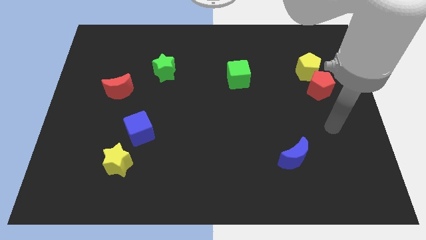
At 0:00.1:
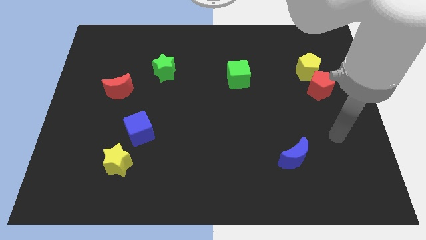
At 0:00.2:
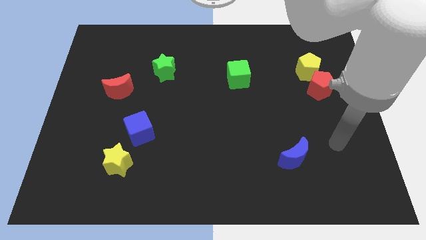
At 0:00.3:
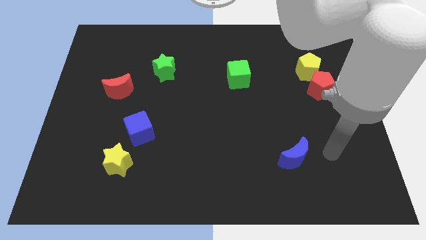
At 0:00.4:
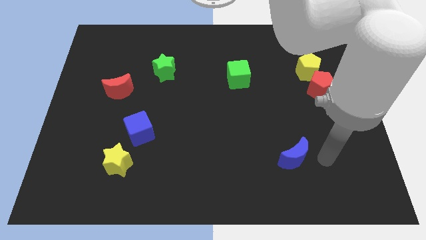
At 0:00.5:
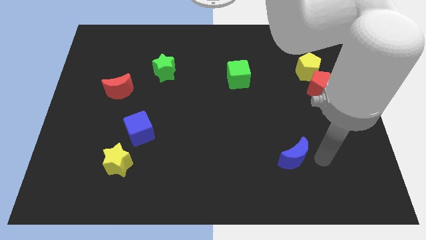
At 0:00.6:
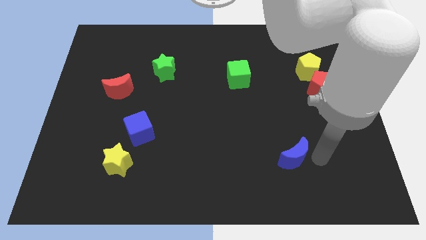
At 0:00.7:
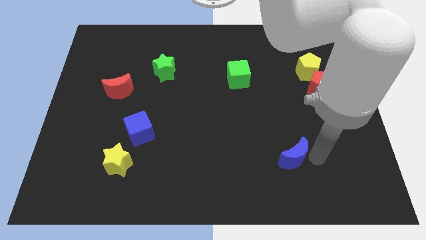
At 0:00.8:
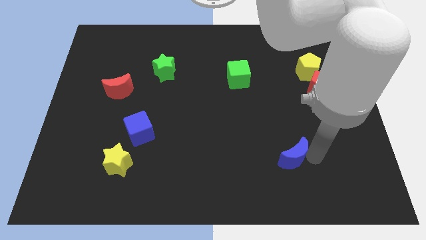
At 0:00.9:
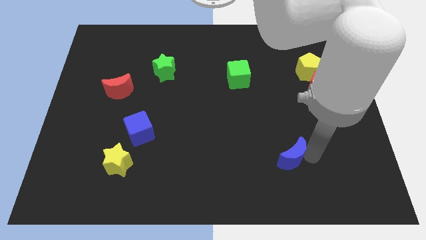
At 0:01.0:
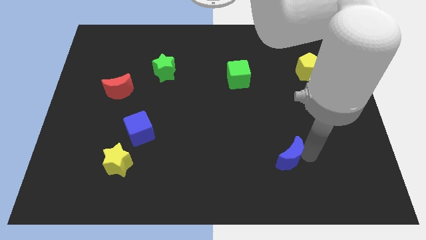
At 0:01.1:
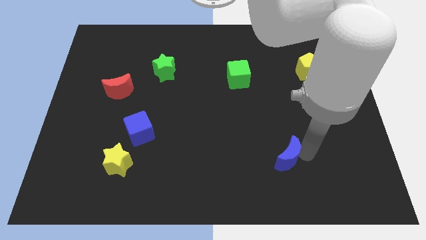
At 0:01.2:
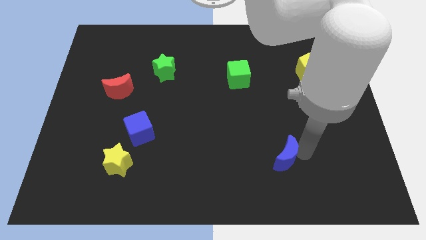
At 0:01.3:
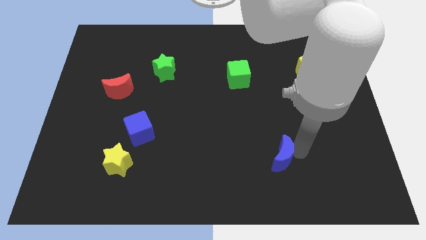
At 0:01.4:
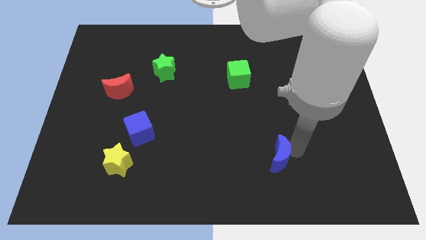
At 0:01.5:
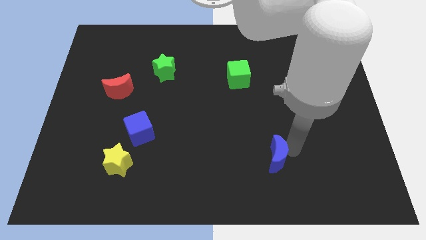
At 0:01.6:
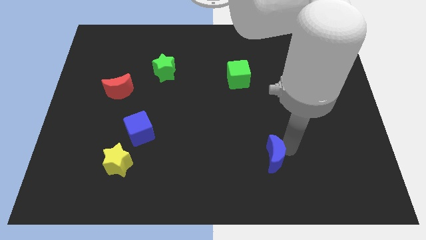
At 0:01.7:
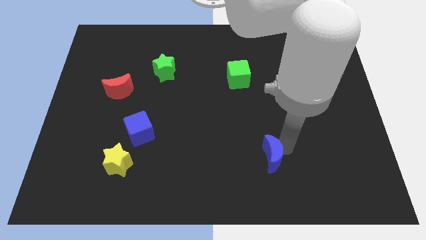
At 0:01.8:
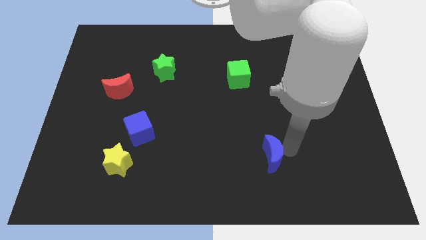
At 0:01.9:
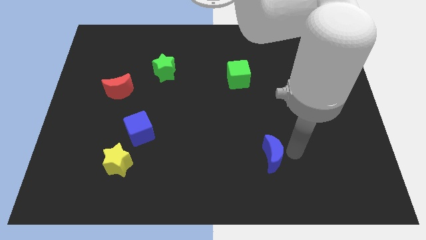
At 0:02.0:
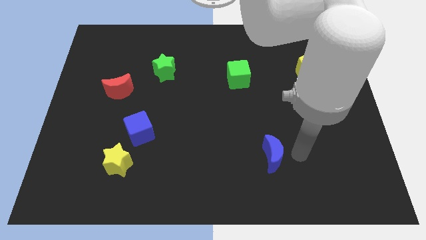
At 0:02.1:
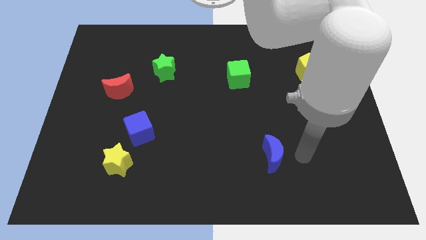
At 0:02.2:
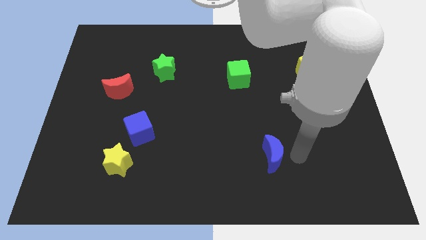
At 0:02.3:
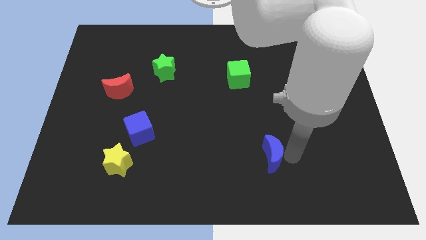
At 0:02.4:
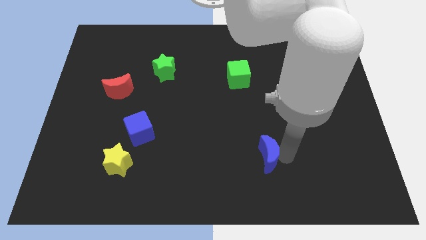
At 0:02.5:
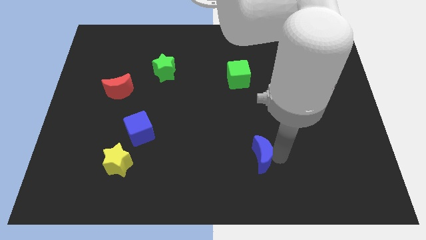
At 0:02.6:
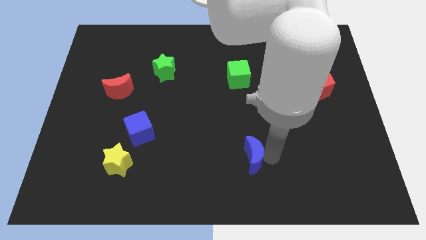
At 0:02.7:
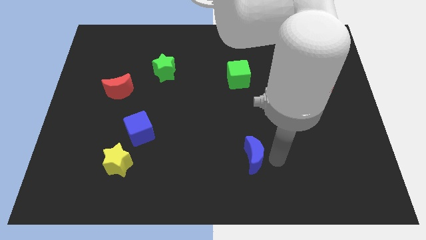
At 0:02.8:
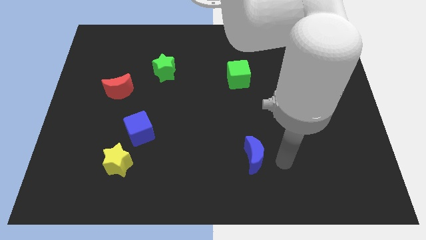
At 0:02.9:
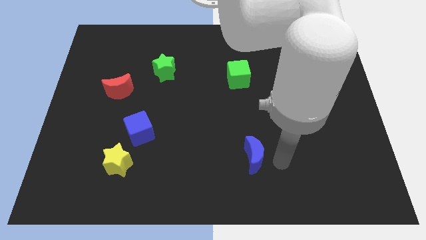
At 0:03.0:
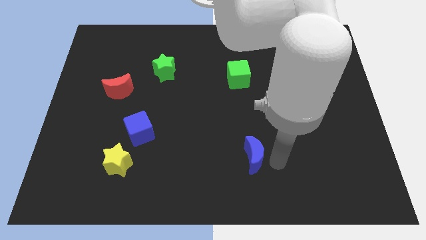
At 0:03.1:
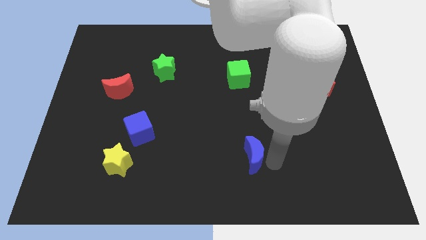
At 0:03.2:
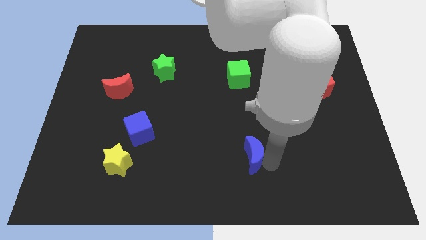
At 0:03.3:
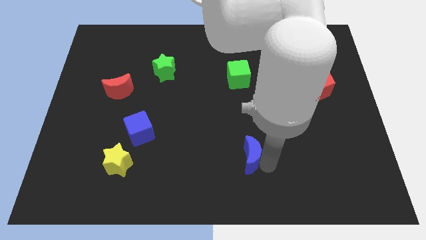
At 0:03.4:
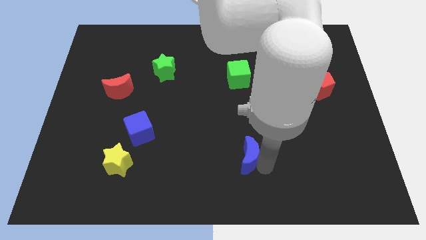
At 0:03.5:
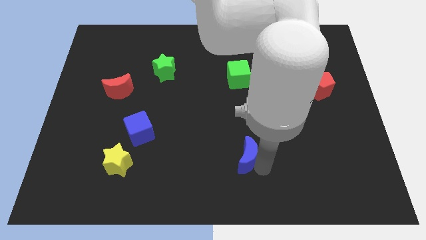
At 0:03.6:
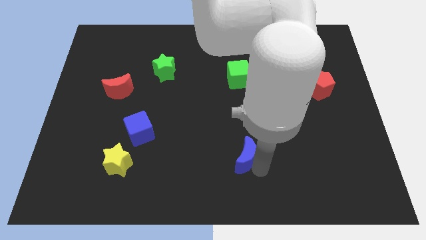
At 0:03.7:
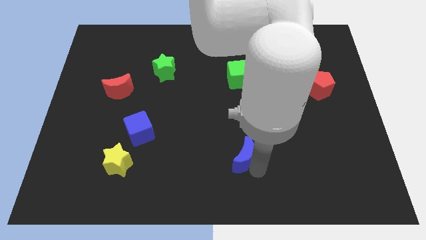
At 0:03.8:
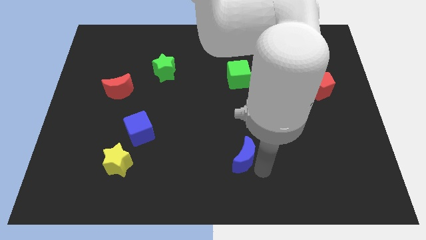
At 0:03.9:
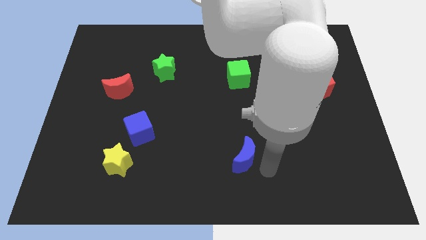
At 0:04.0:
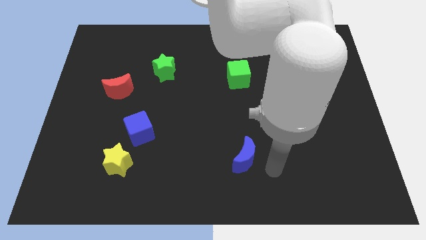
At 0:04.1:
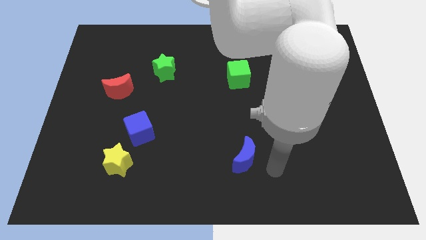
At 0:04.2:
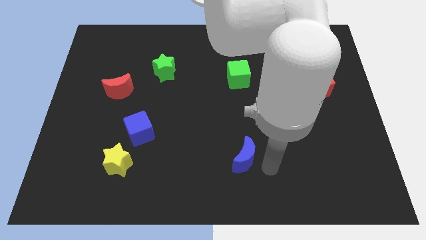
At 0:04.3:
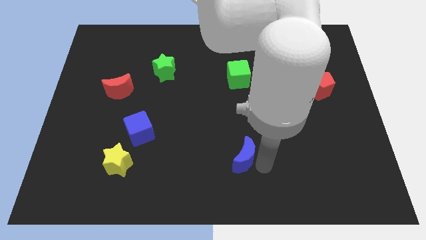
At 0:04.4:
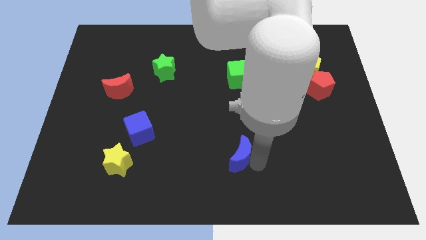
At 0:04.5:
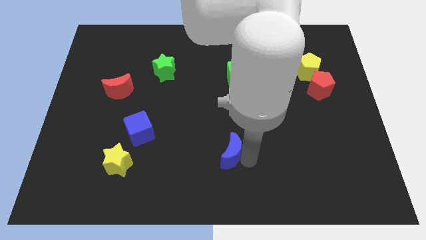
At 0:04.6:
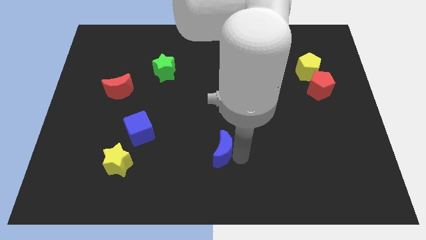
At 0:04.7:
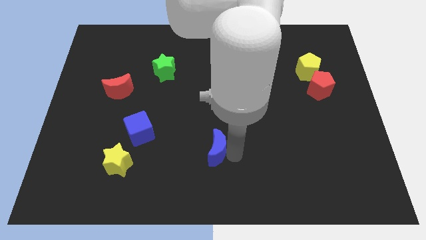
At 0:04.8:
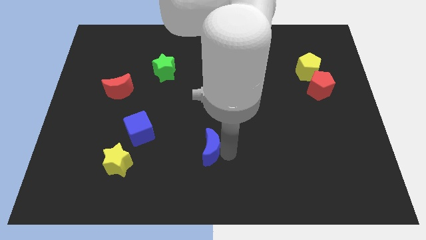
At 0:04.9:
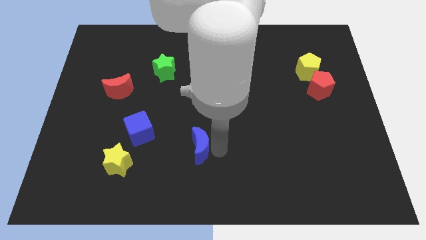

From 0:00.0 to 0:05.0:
slide the blue moon left

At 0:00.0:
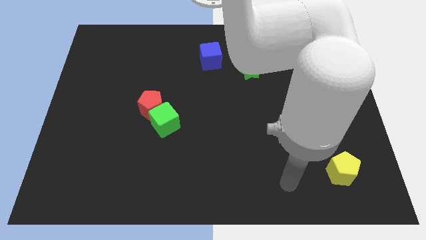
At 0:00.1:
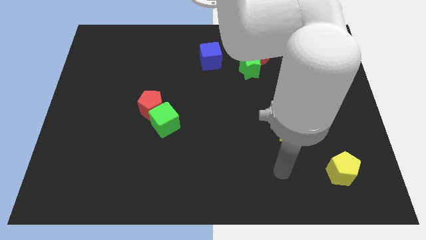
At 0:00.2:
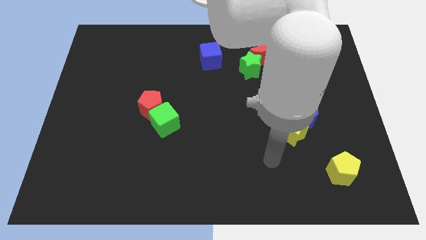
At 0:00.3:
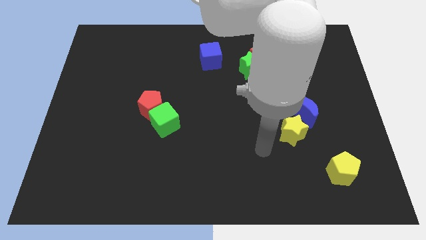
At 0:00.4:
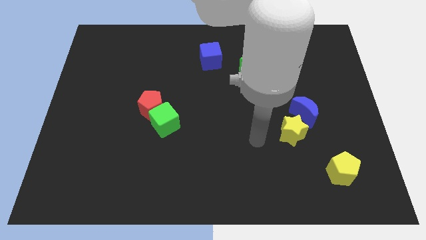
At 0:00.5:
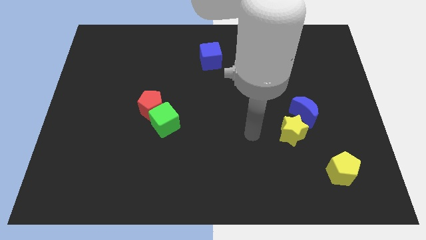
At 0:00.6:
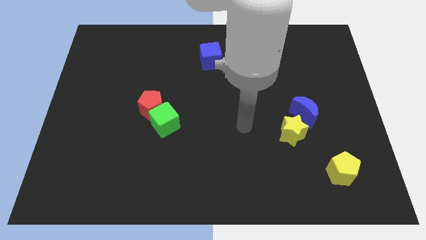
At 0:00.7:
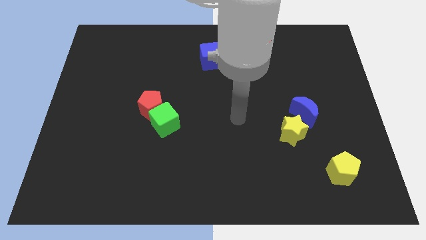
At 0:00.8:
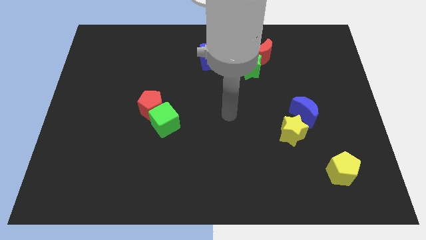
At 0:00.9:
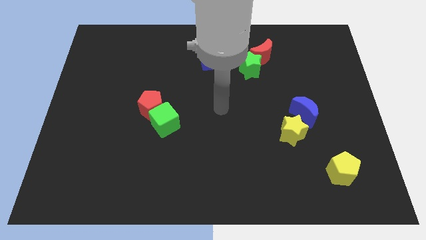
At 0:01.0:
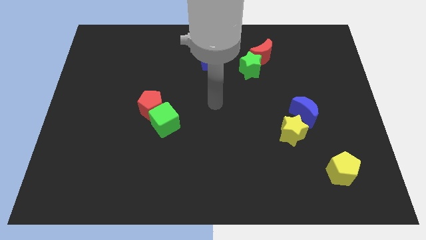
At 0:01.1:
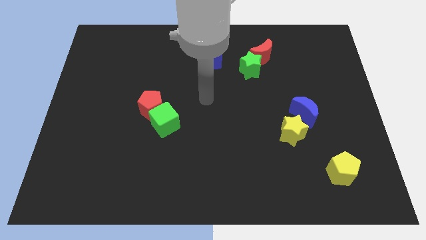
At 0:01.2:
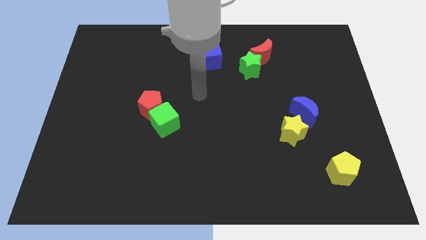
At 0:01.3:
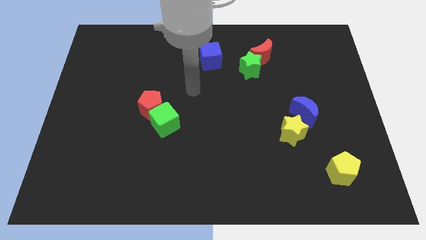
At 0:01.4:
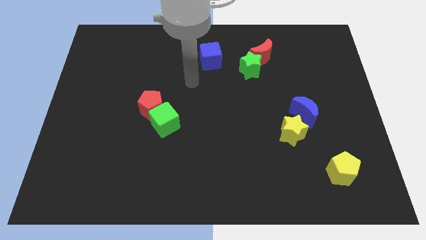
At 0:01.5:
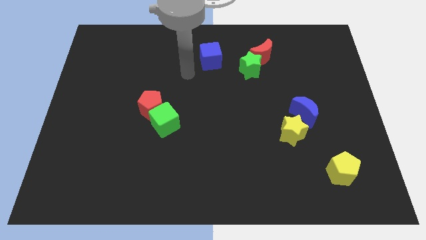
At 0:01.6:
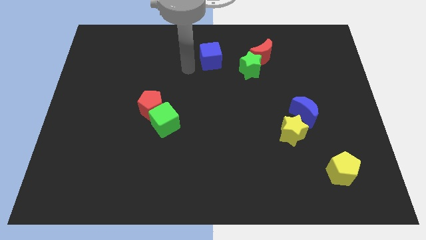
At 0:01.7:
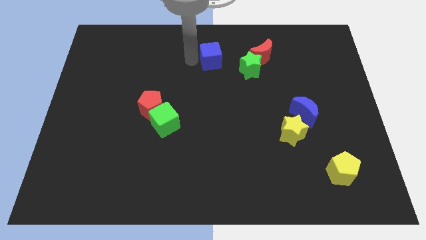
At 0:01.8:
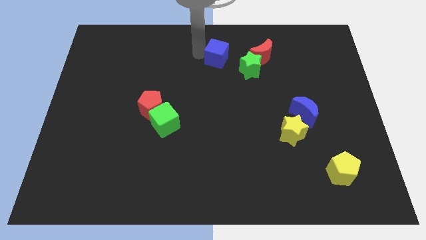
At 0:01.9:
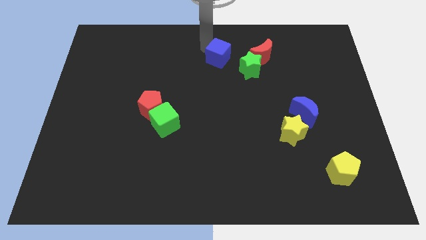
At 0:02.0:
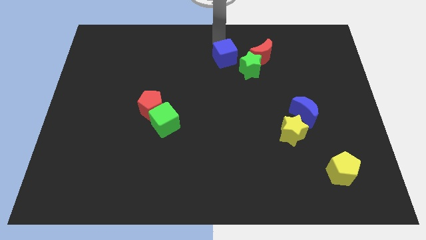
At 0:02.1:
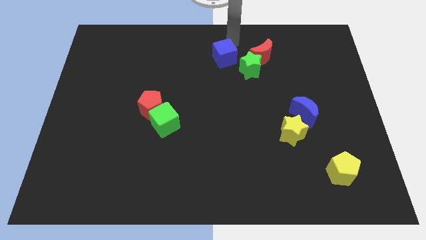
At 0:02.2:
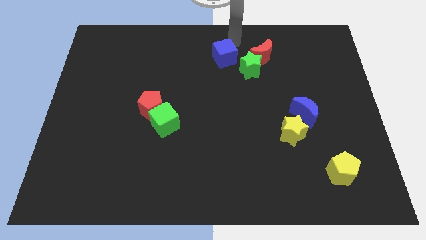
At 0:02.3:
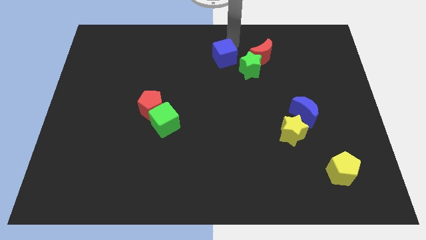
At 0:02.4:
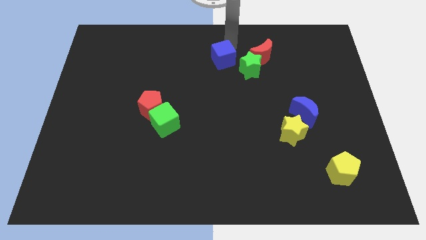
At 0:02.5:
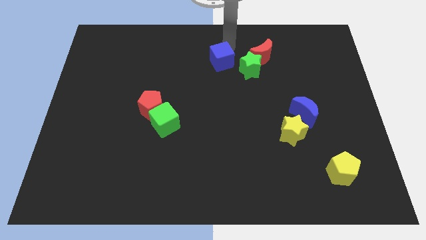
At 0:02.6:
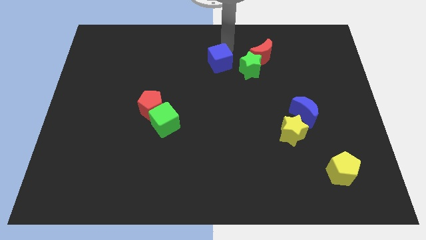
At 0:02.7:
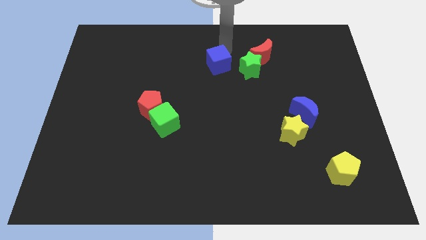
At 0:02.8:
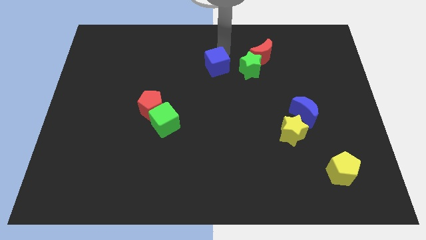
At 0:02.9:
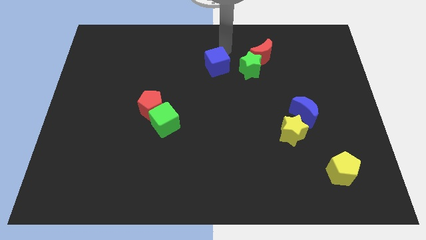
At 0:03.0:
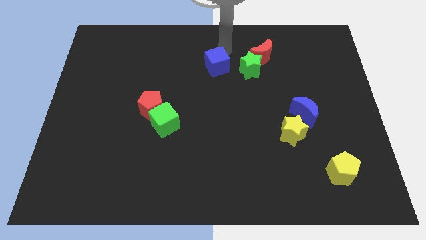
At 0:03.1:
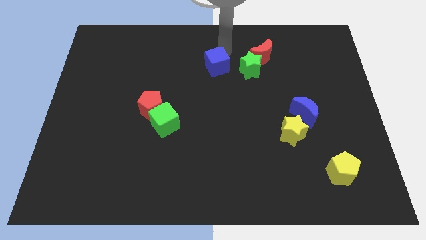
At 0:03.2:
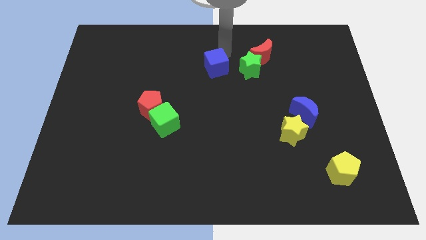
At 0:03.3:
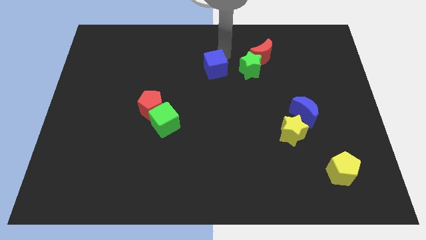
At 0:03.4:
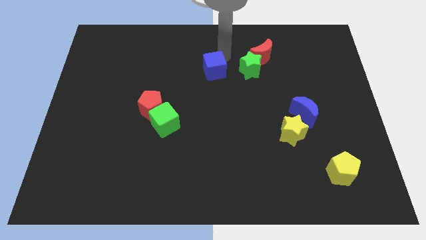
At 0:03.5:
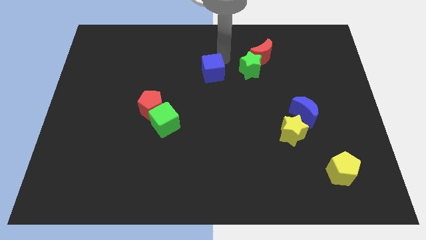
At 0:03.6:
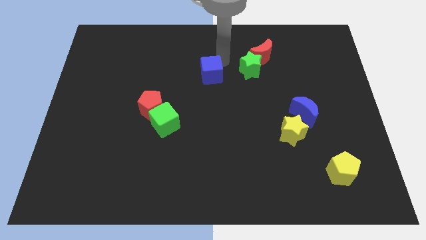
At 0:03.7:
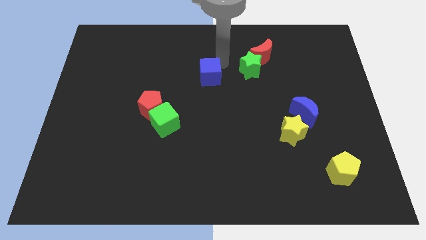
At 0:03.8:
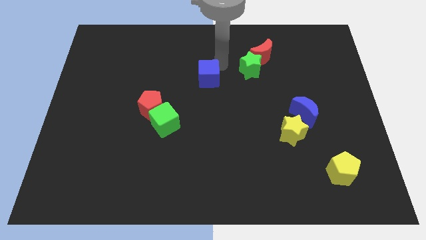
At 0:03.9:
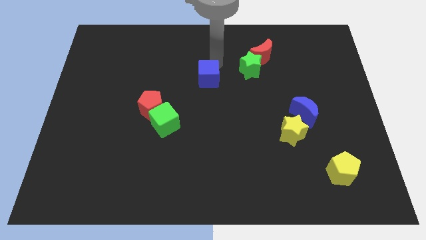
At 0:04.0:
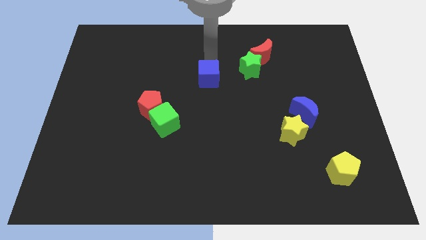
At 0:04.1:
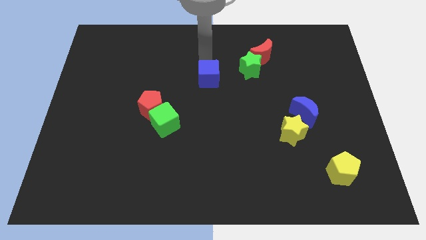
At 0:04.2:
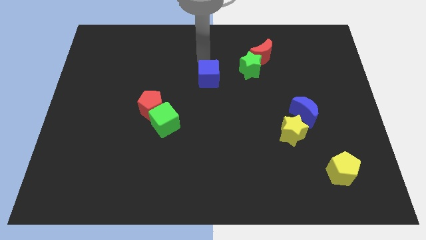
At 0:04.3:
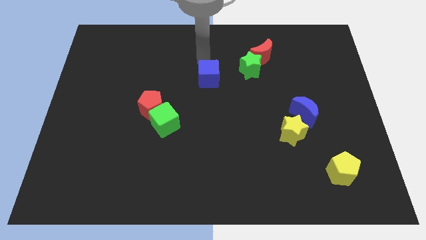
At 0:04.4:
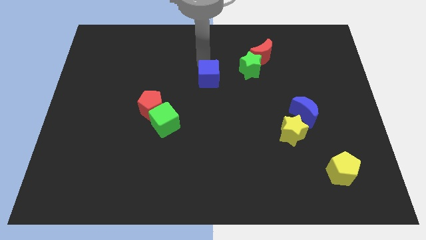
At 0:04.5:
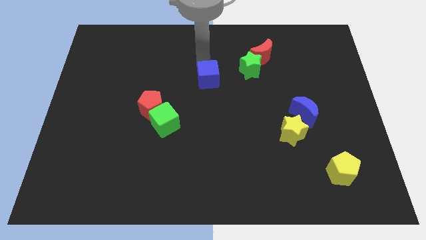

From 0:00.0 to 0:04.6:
move the blue cube down a little
